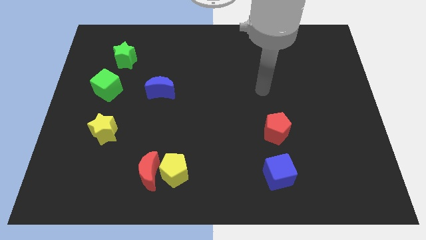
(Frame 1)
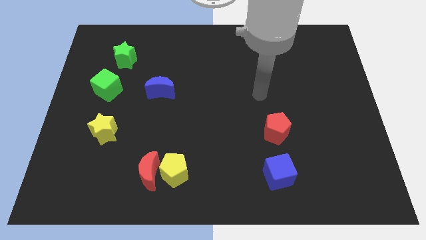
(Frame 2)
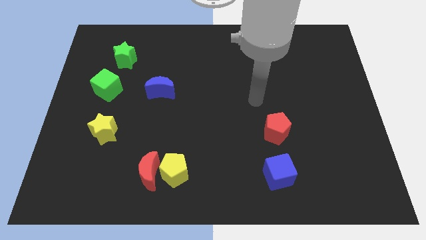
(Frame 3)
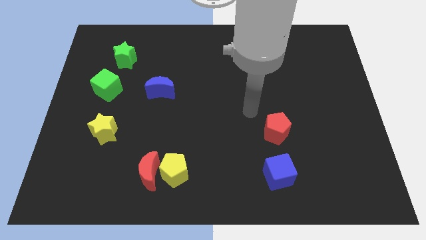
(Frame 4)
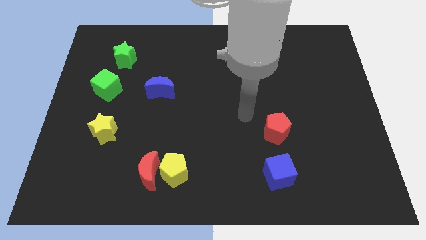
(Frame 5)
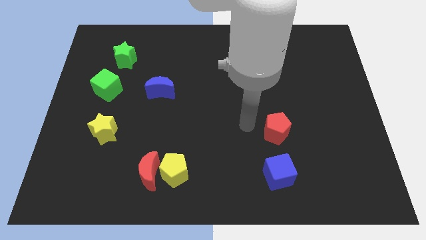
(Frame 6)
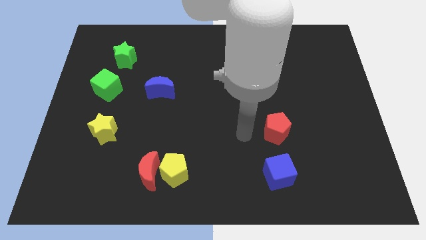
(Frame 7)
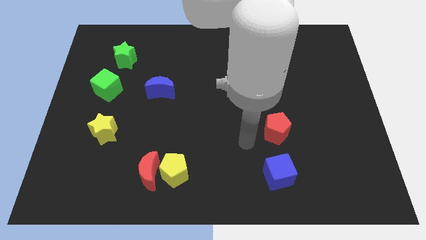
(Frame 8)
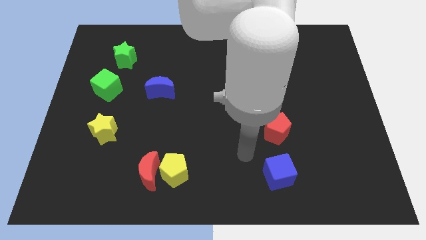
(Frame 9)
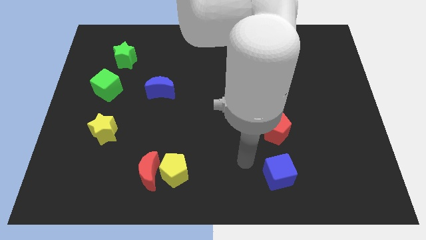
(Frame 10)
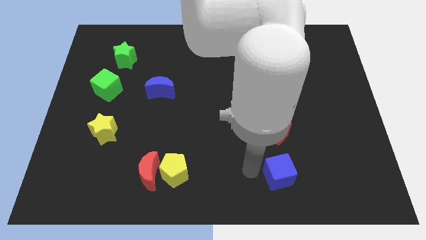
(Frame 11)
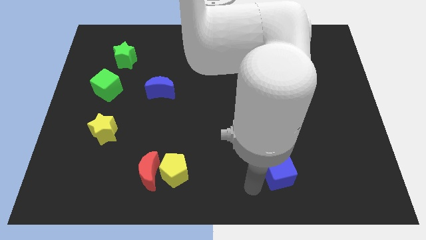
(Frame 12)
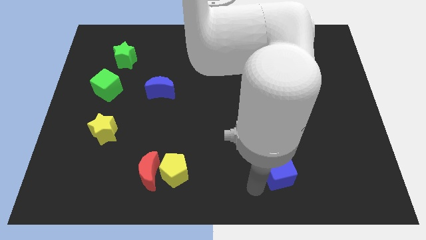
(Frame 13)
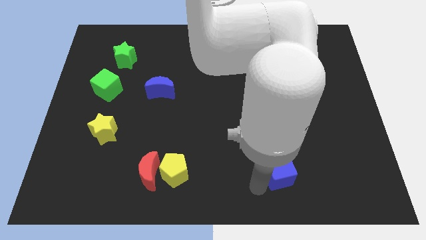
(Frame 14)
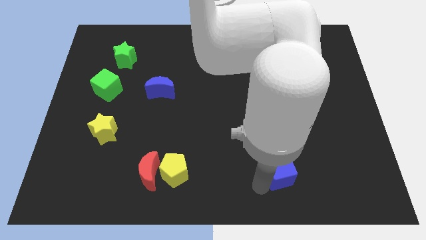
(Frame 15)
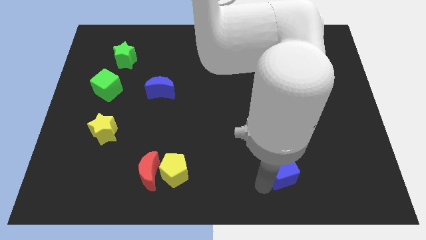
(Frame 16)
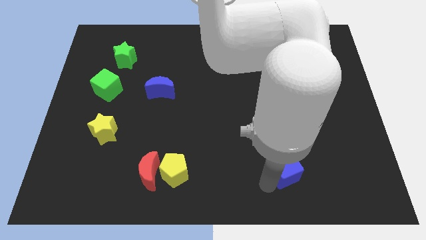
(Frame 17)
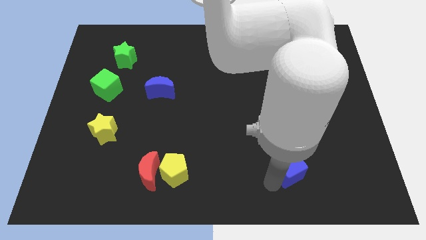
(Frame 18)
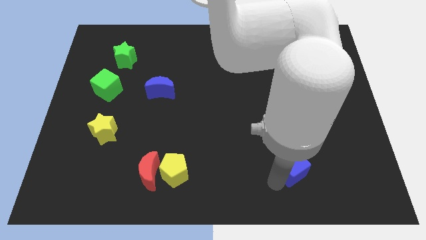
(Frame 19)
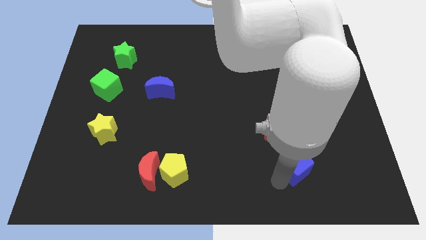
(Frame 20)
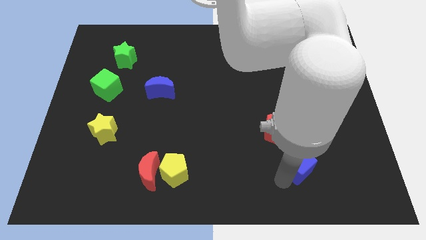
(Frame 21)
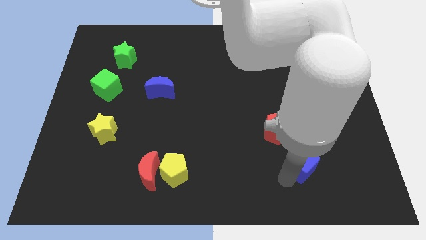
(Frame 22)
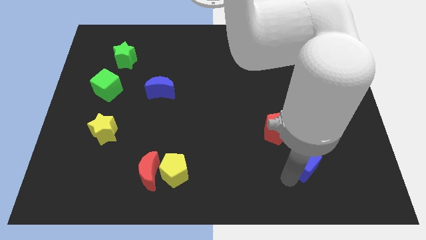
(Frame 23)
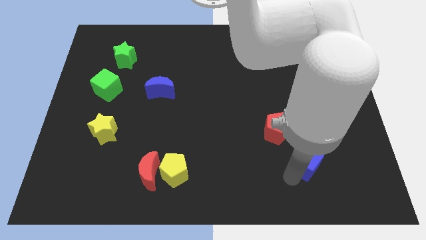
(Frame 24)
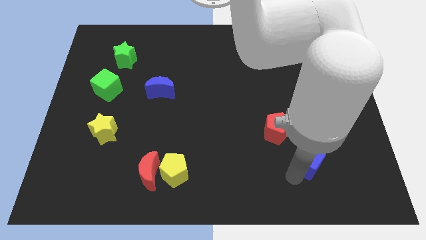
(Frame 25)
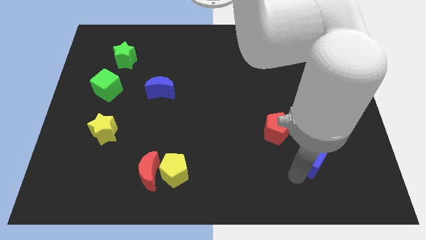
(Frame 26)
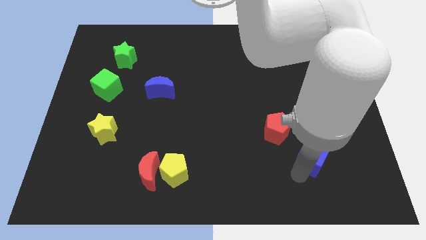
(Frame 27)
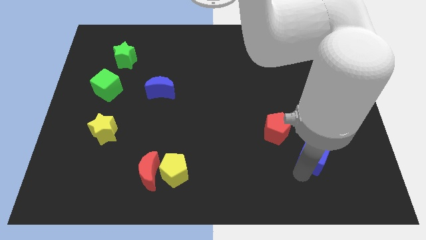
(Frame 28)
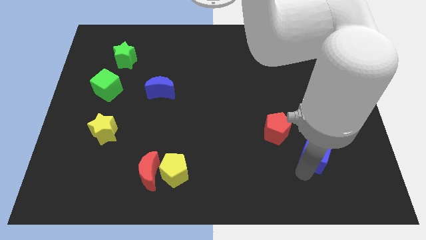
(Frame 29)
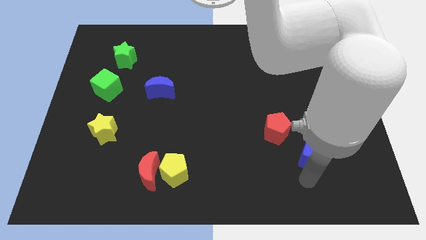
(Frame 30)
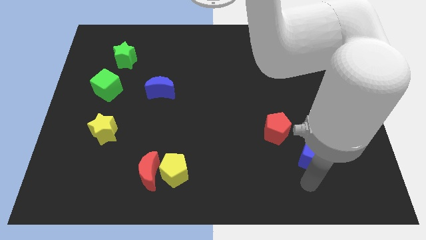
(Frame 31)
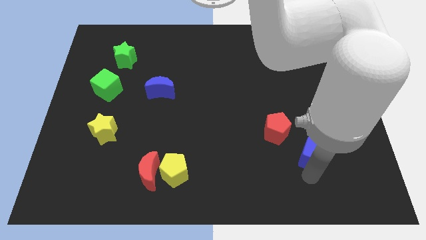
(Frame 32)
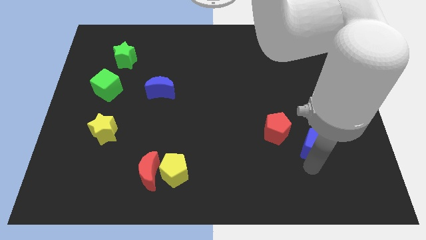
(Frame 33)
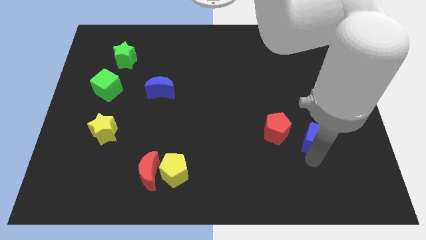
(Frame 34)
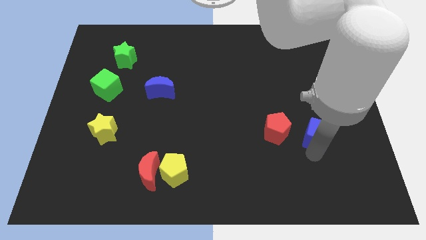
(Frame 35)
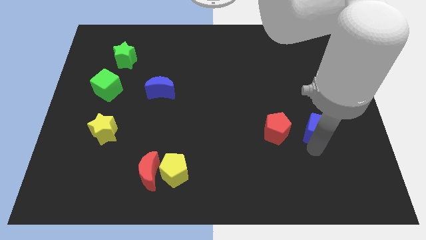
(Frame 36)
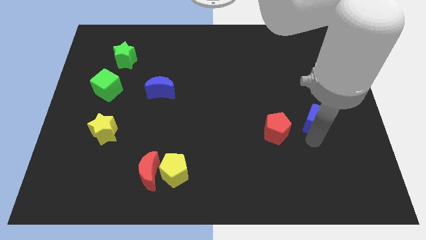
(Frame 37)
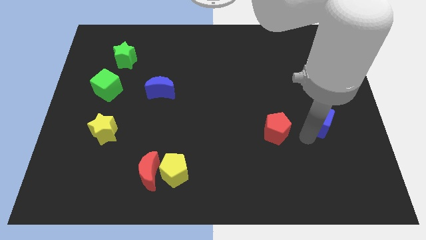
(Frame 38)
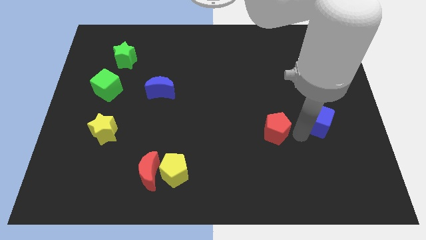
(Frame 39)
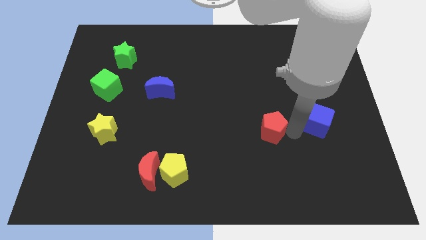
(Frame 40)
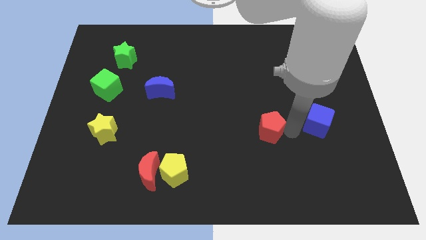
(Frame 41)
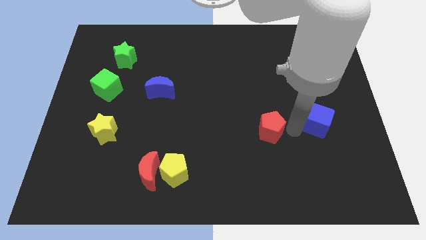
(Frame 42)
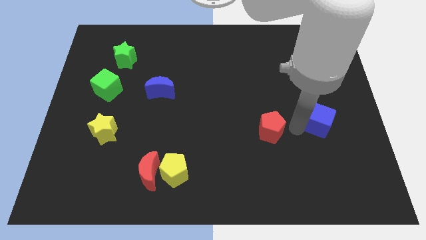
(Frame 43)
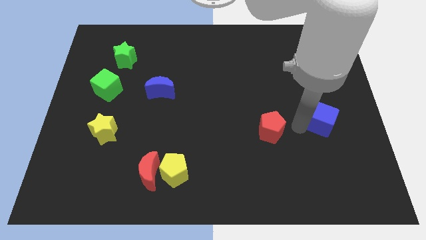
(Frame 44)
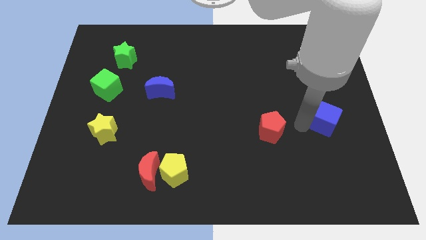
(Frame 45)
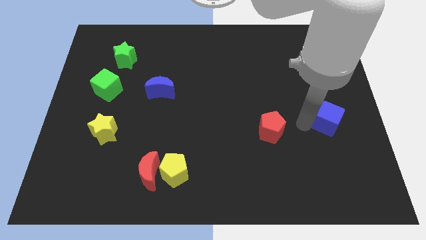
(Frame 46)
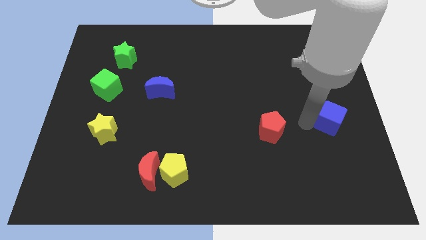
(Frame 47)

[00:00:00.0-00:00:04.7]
put the blue cube to the center right

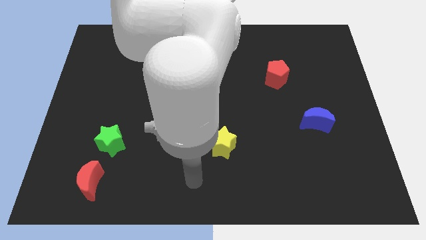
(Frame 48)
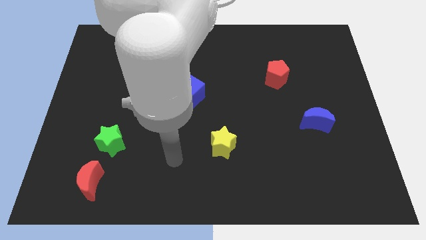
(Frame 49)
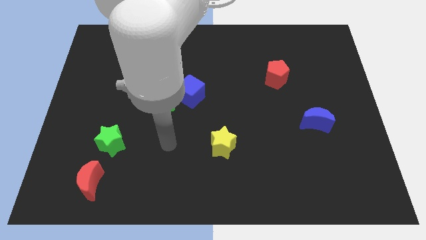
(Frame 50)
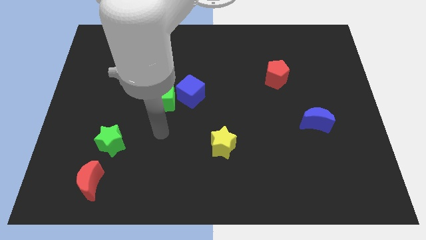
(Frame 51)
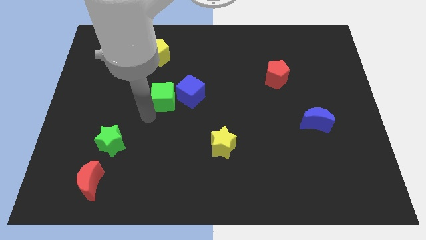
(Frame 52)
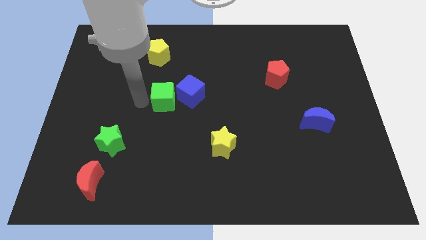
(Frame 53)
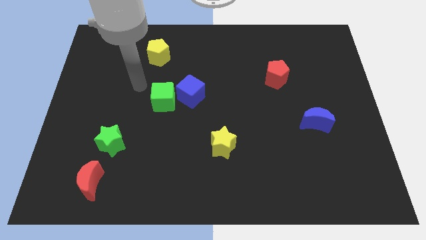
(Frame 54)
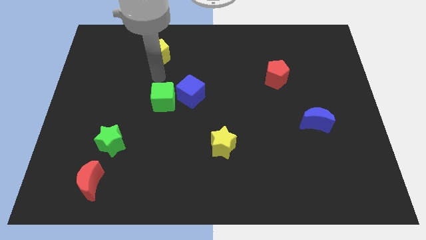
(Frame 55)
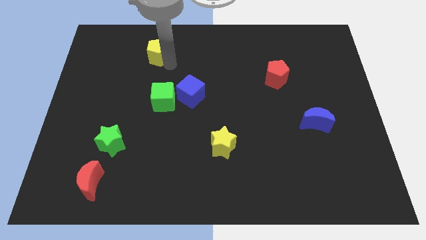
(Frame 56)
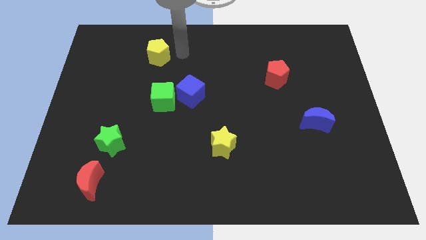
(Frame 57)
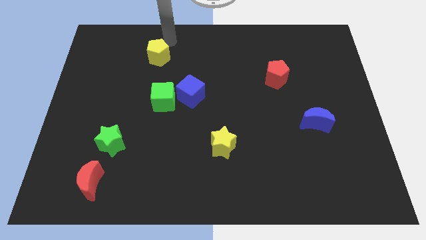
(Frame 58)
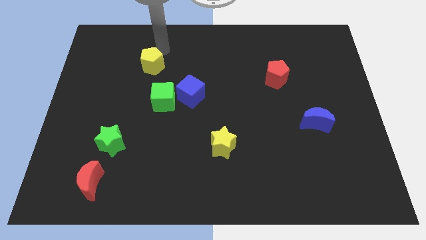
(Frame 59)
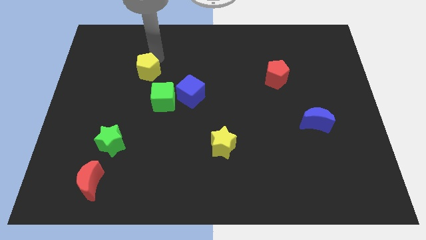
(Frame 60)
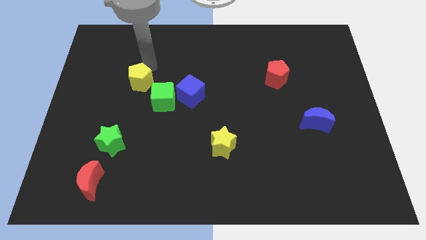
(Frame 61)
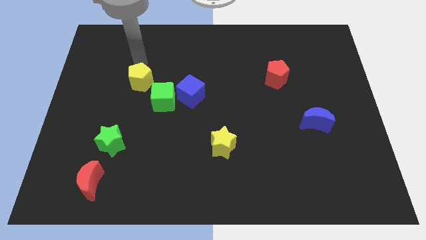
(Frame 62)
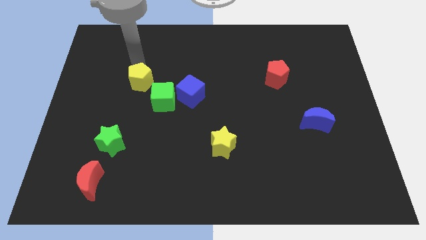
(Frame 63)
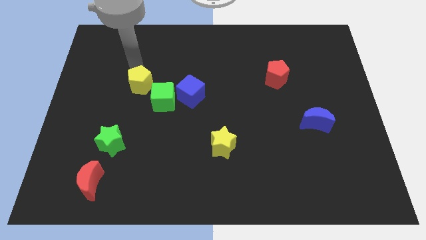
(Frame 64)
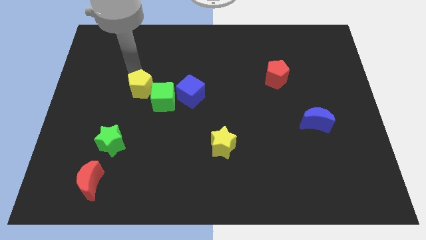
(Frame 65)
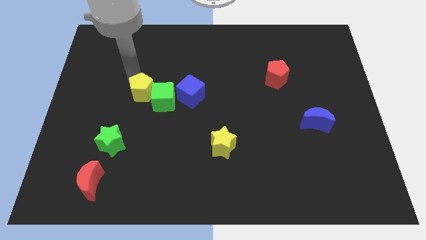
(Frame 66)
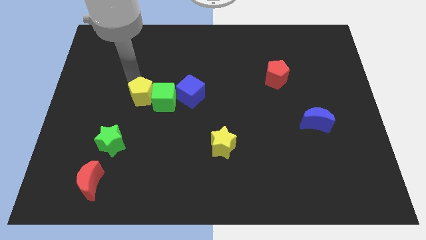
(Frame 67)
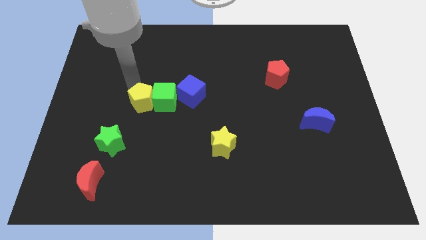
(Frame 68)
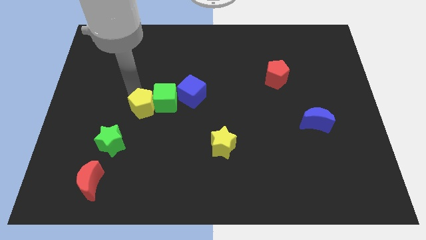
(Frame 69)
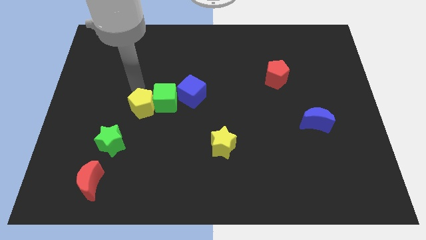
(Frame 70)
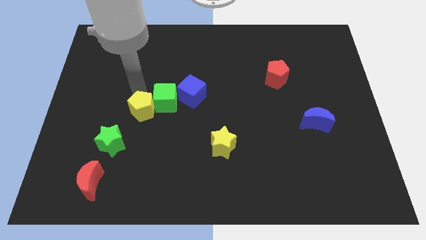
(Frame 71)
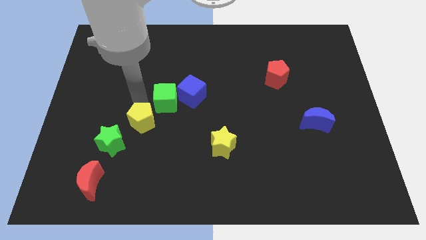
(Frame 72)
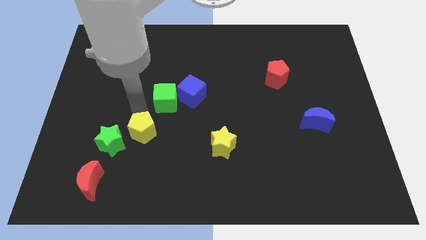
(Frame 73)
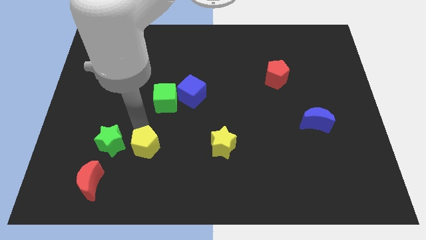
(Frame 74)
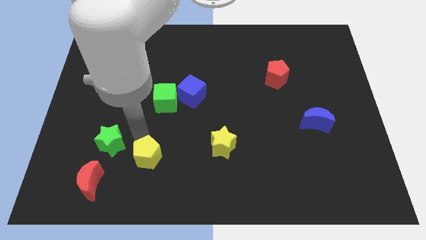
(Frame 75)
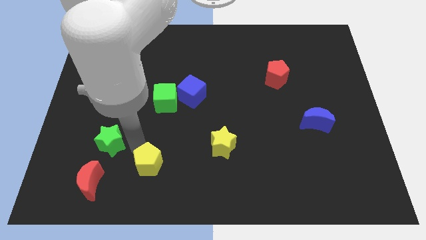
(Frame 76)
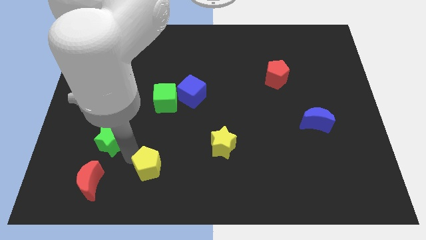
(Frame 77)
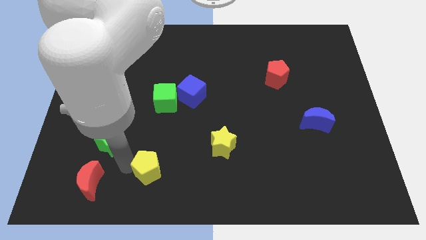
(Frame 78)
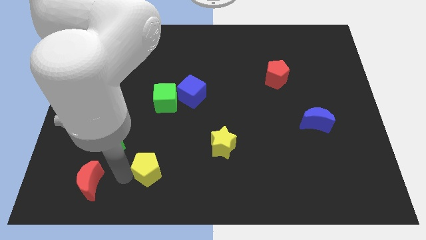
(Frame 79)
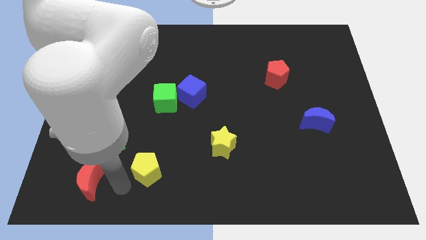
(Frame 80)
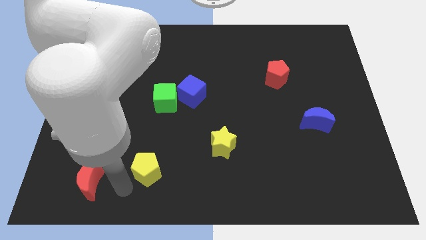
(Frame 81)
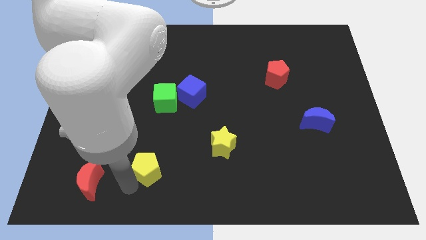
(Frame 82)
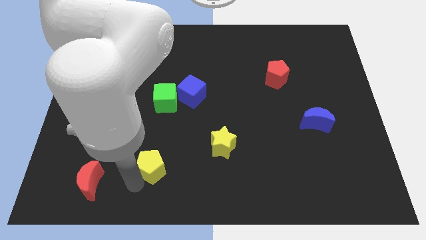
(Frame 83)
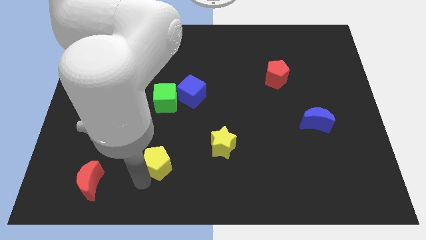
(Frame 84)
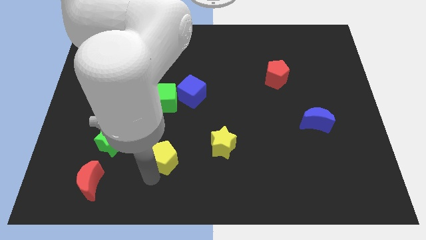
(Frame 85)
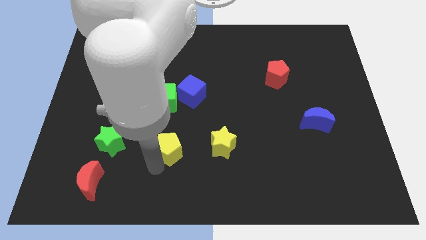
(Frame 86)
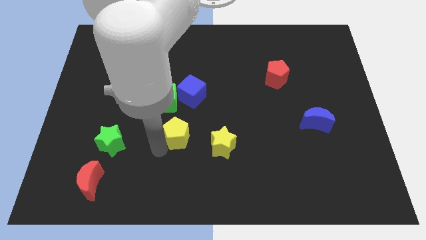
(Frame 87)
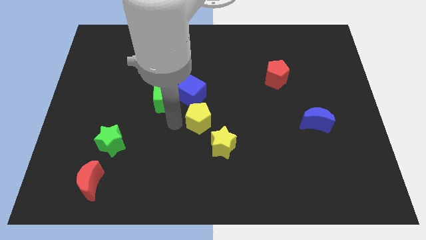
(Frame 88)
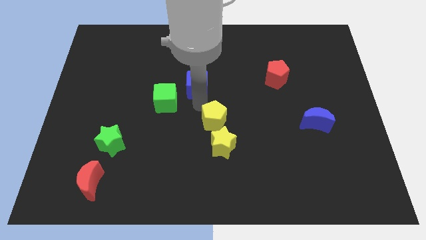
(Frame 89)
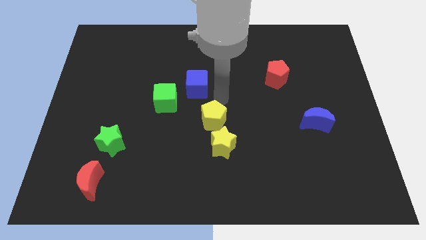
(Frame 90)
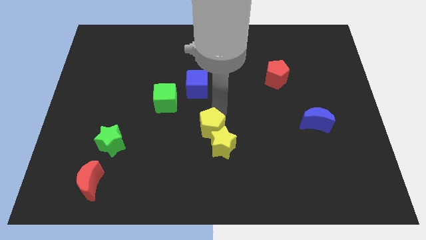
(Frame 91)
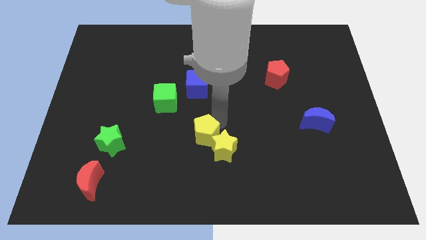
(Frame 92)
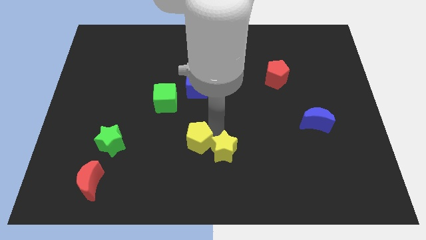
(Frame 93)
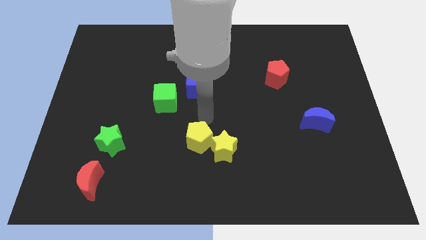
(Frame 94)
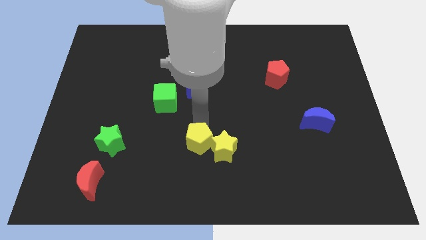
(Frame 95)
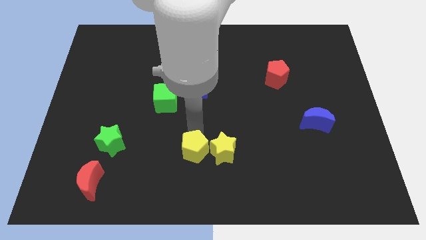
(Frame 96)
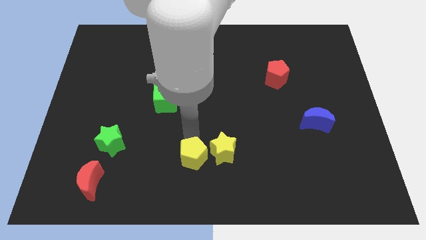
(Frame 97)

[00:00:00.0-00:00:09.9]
push the yellow pentagon to the bottom
